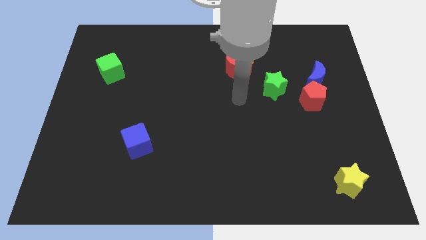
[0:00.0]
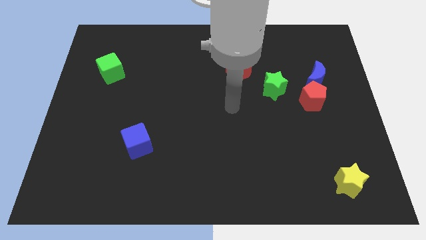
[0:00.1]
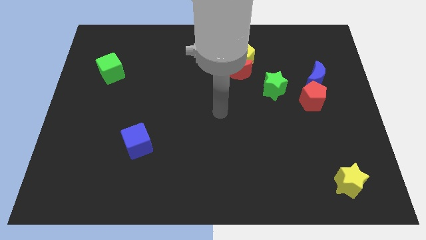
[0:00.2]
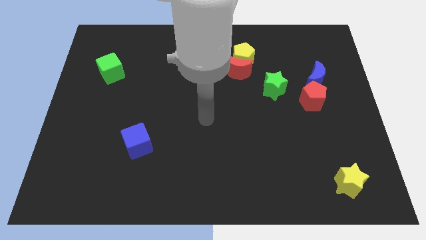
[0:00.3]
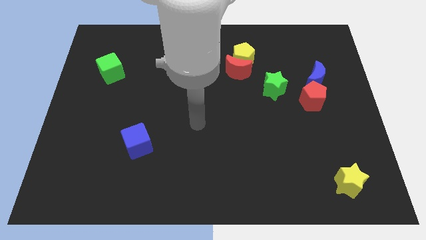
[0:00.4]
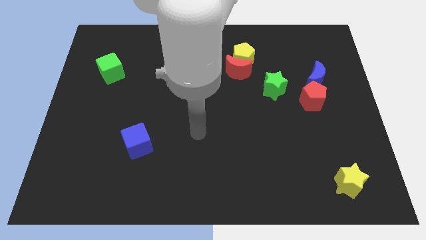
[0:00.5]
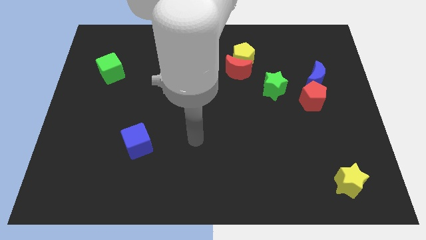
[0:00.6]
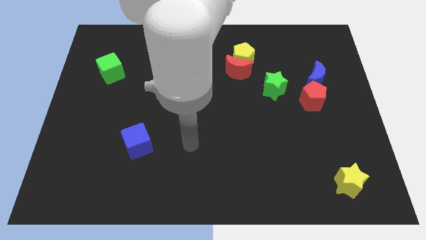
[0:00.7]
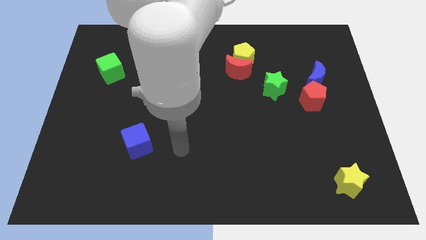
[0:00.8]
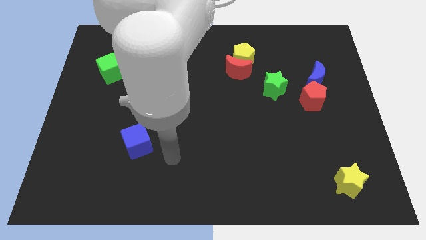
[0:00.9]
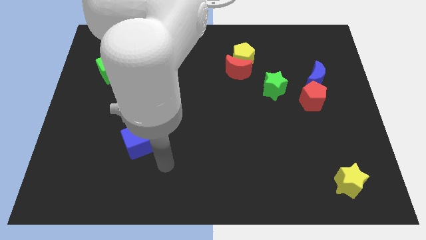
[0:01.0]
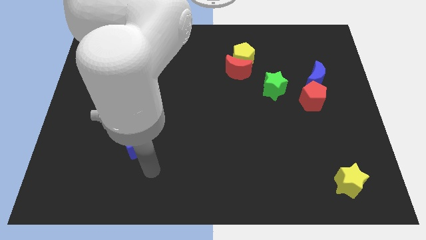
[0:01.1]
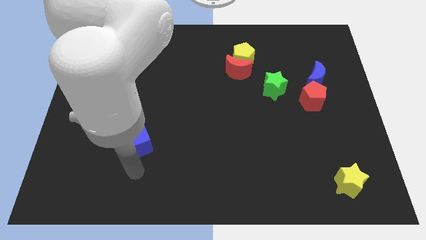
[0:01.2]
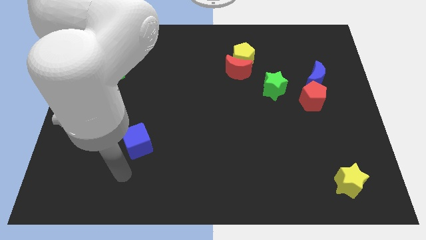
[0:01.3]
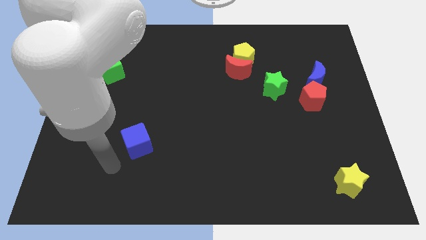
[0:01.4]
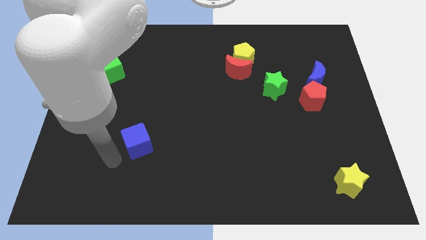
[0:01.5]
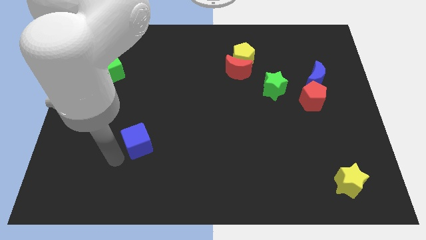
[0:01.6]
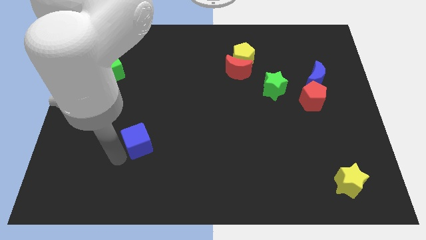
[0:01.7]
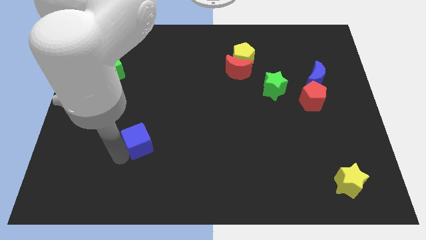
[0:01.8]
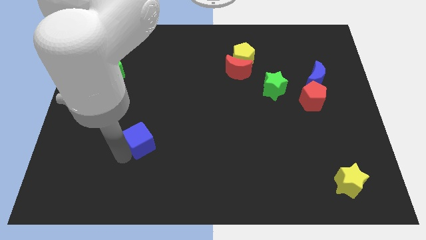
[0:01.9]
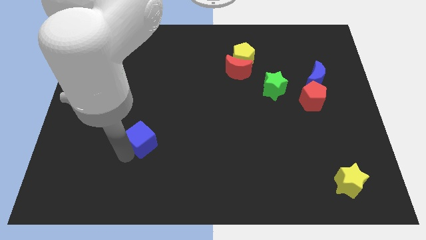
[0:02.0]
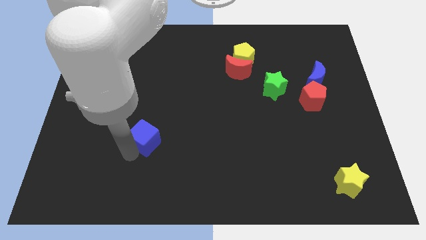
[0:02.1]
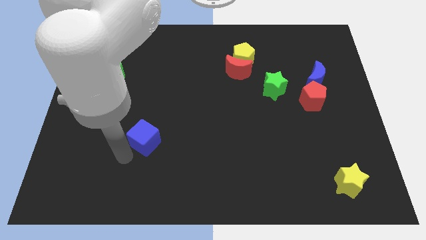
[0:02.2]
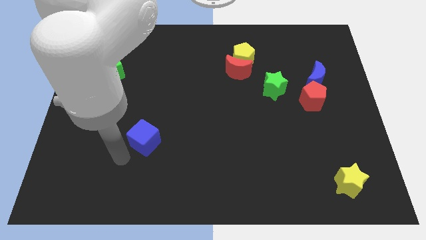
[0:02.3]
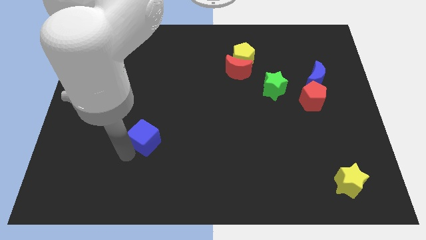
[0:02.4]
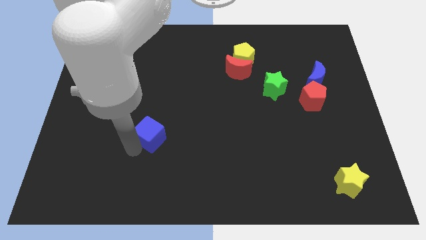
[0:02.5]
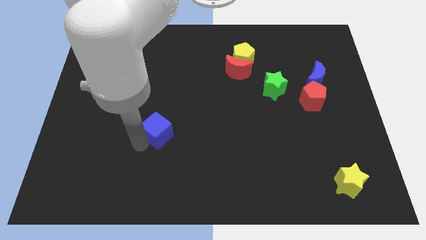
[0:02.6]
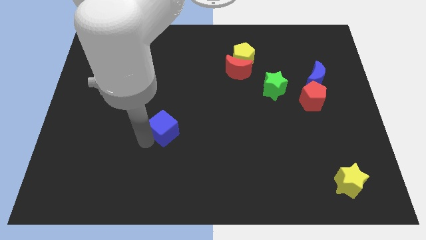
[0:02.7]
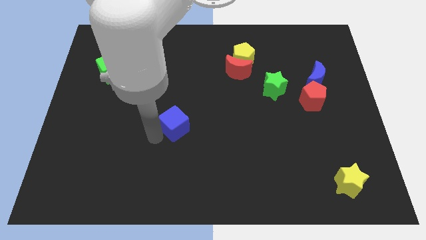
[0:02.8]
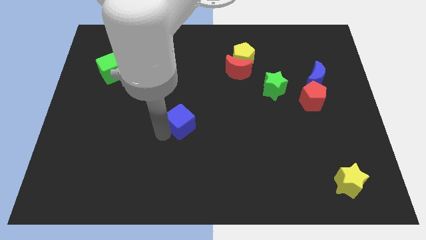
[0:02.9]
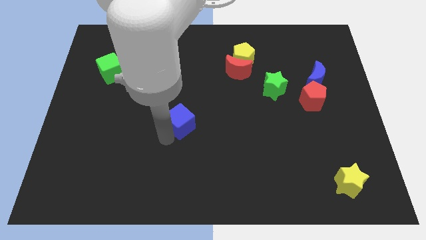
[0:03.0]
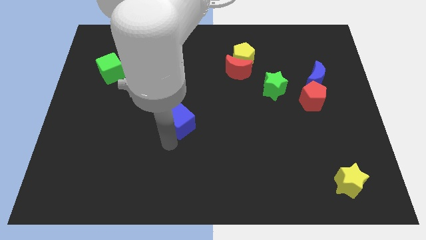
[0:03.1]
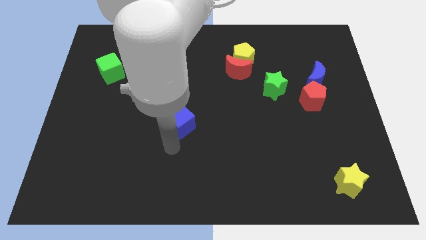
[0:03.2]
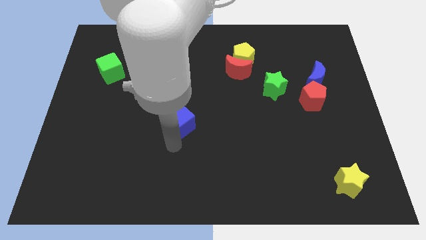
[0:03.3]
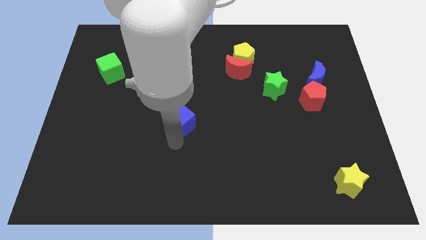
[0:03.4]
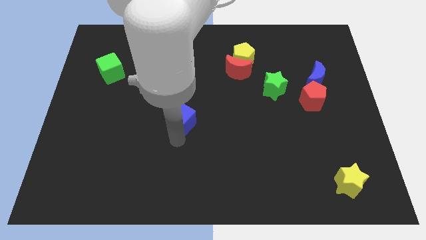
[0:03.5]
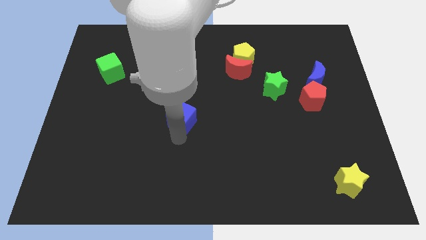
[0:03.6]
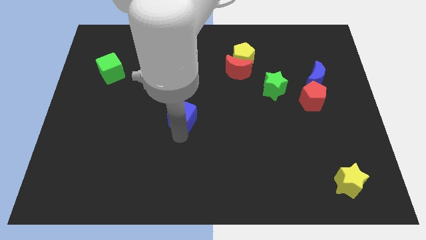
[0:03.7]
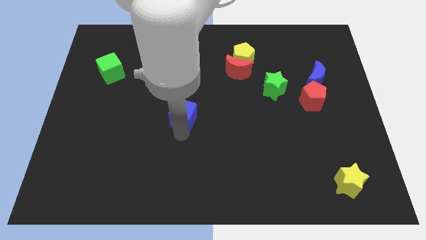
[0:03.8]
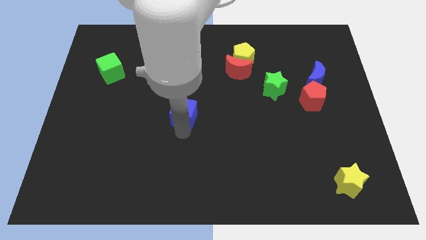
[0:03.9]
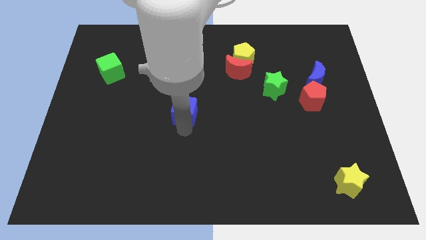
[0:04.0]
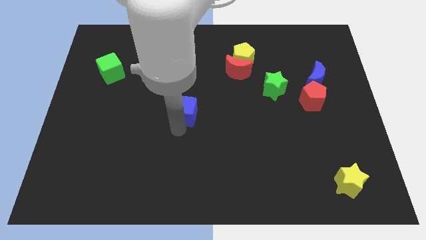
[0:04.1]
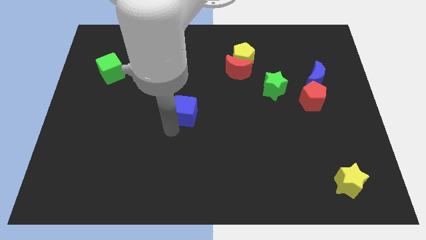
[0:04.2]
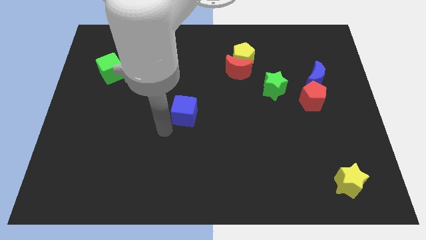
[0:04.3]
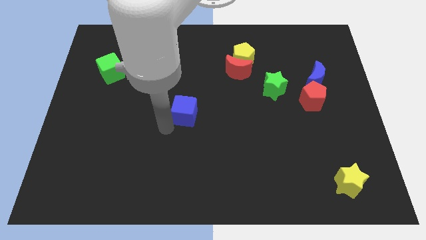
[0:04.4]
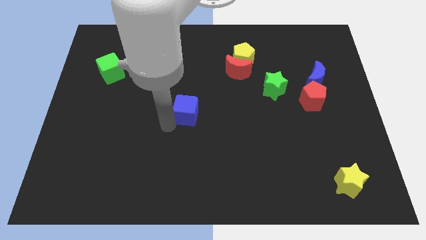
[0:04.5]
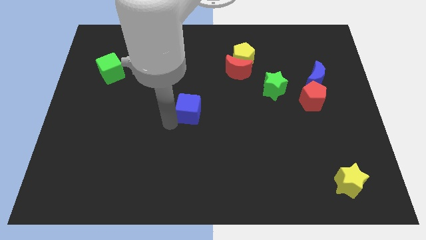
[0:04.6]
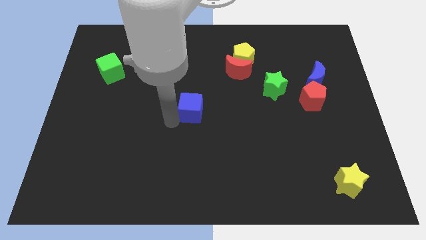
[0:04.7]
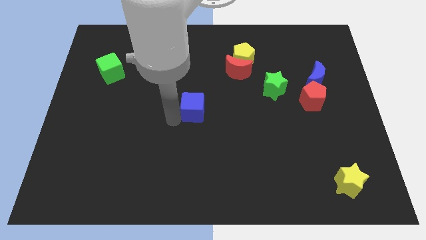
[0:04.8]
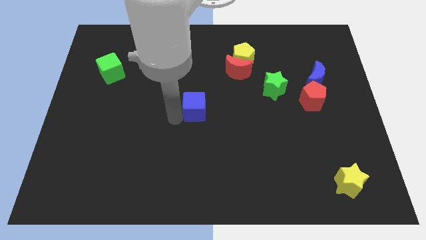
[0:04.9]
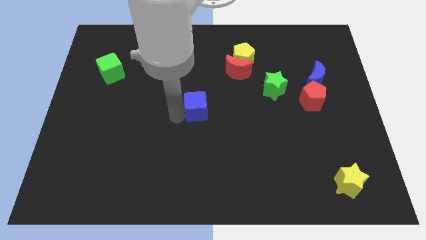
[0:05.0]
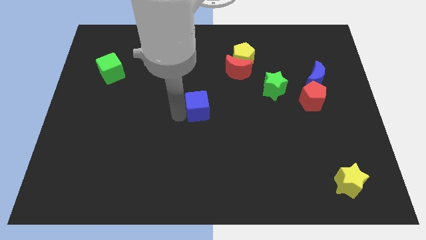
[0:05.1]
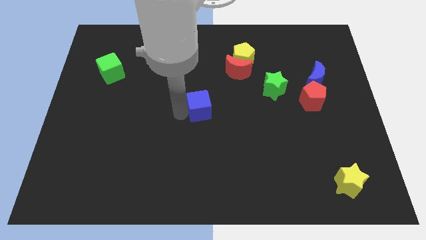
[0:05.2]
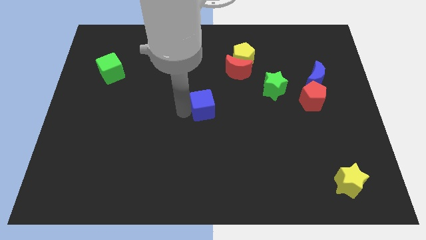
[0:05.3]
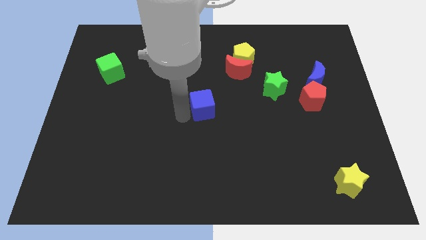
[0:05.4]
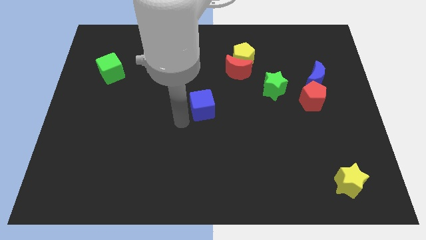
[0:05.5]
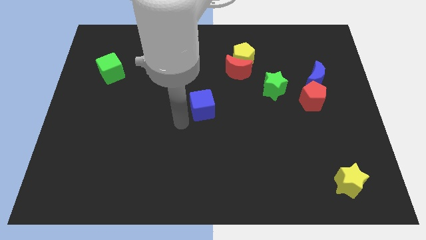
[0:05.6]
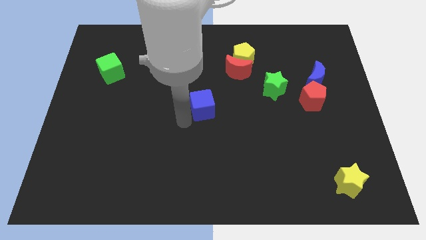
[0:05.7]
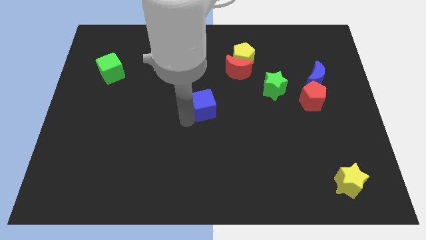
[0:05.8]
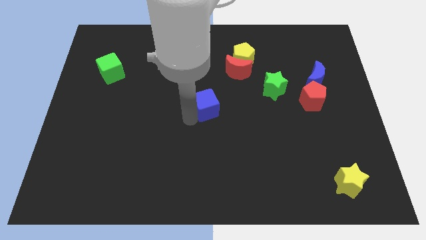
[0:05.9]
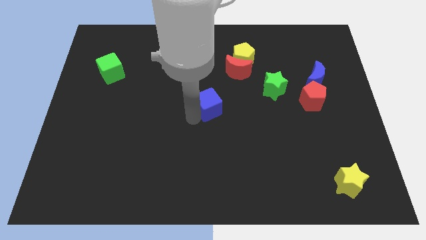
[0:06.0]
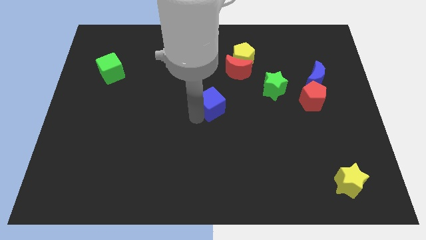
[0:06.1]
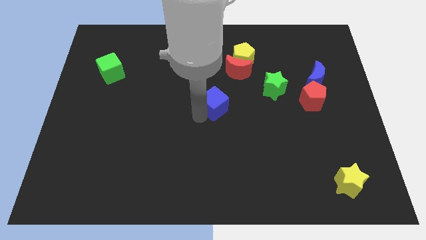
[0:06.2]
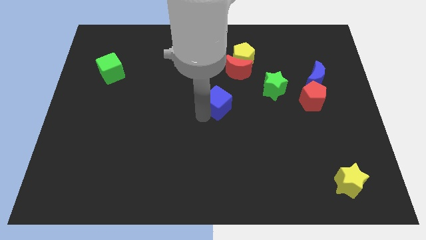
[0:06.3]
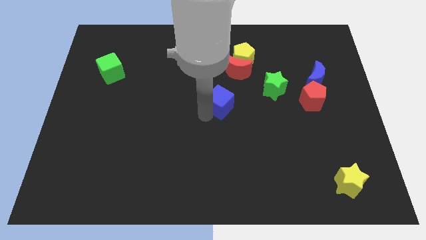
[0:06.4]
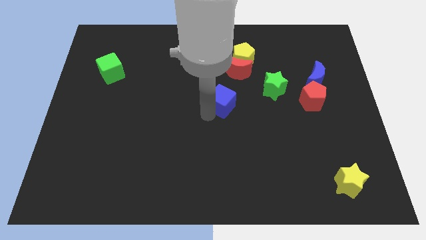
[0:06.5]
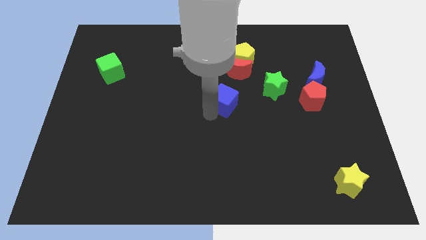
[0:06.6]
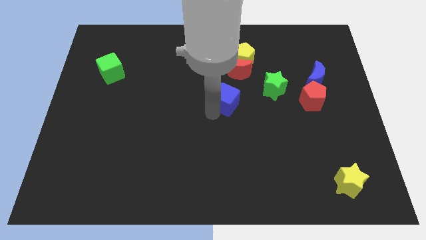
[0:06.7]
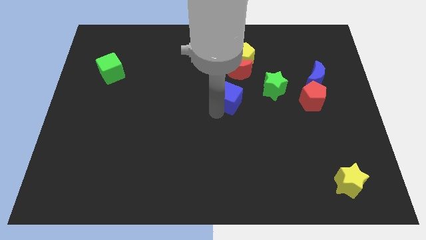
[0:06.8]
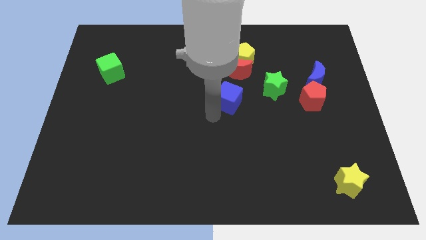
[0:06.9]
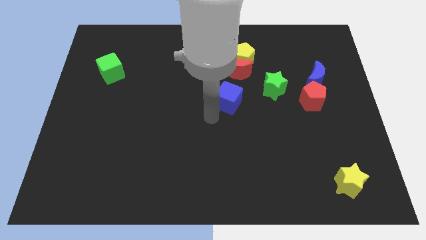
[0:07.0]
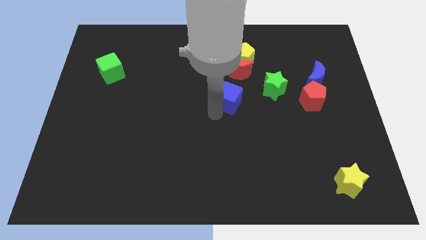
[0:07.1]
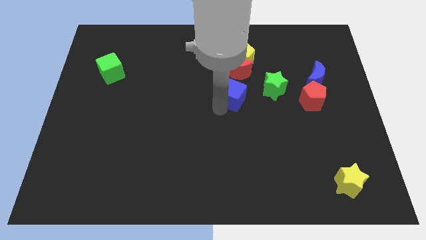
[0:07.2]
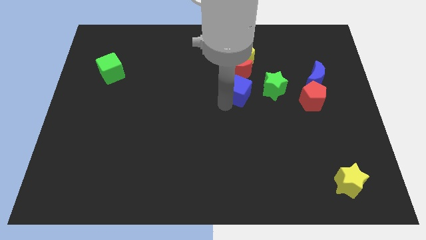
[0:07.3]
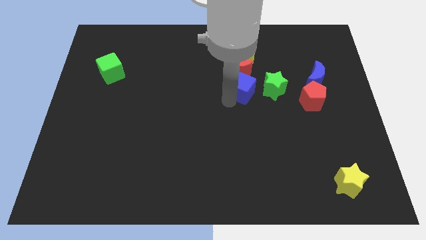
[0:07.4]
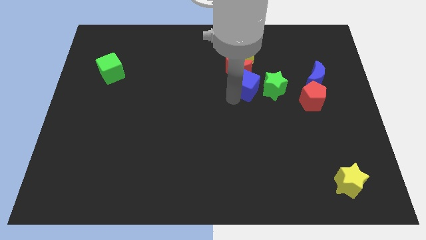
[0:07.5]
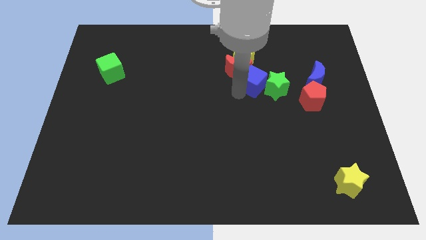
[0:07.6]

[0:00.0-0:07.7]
slide the blue cube just right of the red moon
